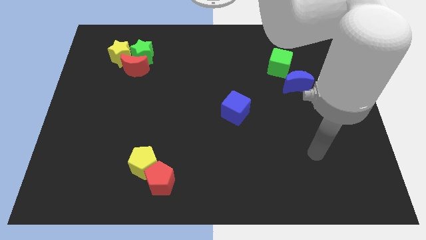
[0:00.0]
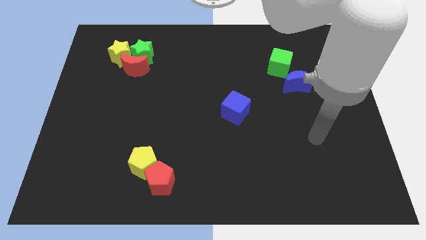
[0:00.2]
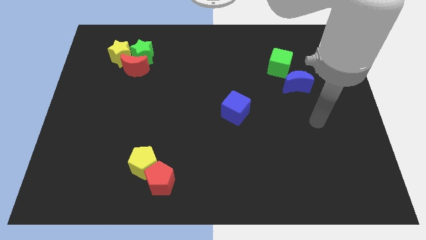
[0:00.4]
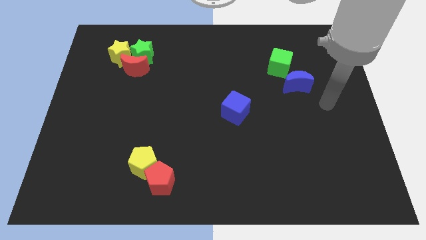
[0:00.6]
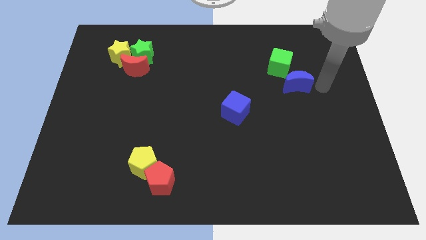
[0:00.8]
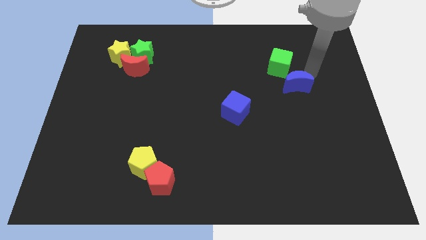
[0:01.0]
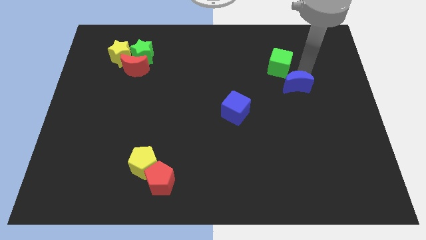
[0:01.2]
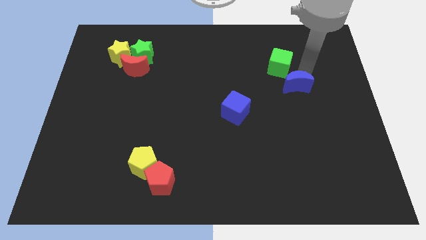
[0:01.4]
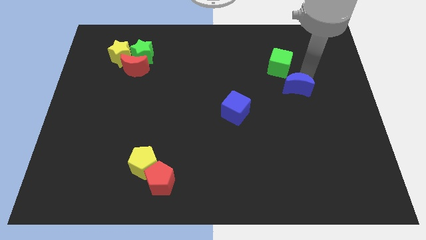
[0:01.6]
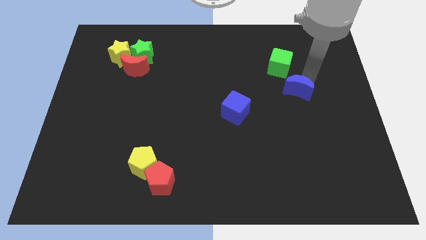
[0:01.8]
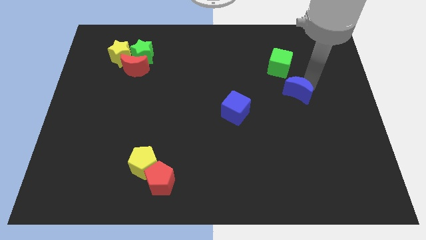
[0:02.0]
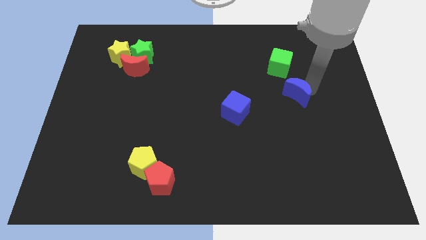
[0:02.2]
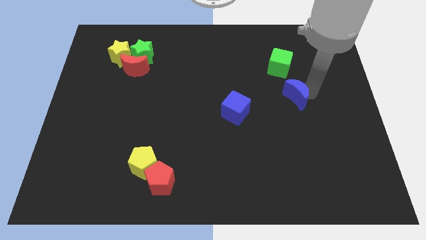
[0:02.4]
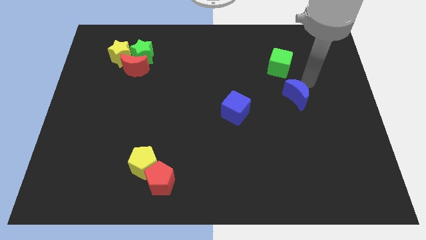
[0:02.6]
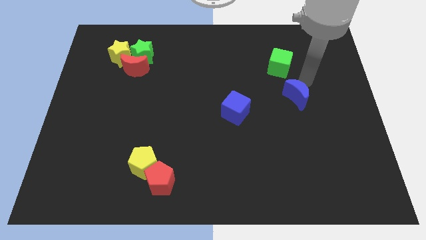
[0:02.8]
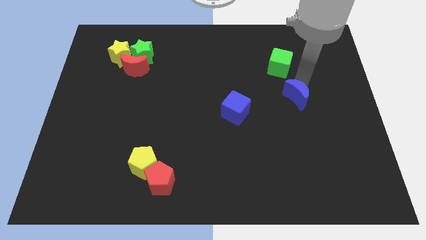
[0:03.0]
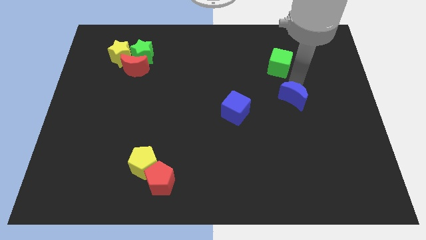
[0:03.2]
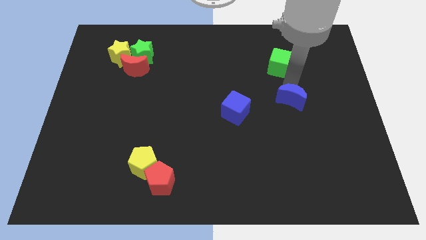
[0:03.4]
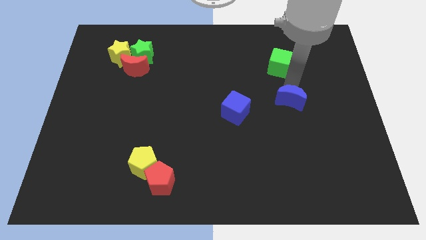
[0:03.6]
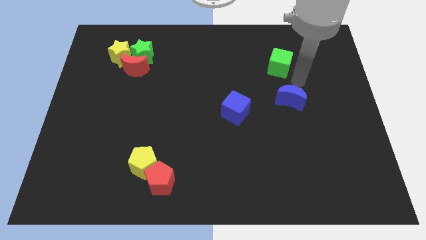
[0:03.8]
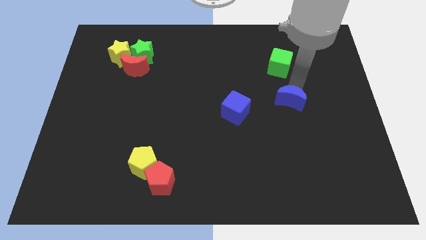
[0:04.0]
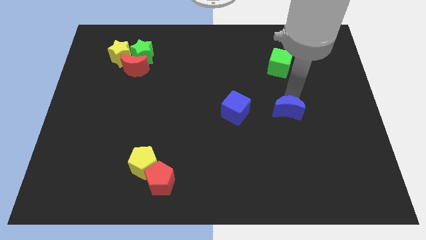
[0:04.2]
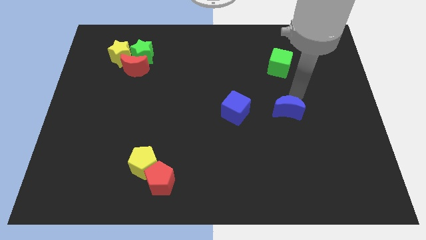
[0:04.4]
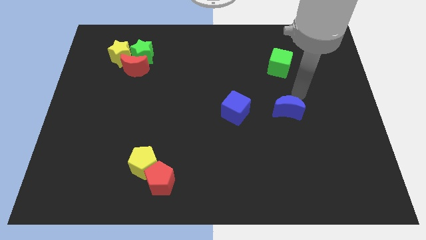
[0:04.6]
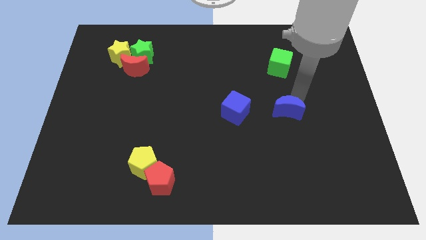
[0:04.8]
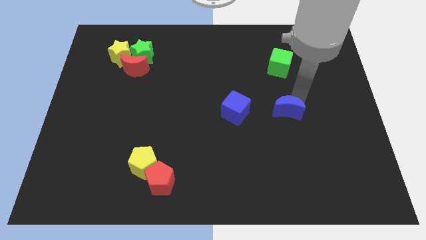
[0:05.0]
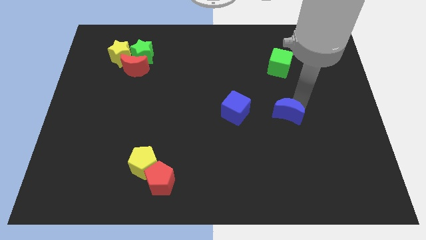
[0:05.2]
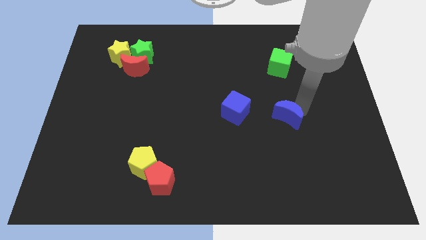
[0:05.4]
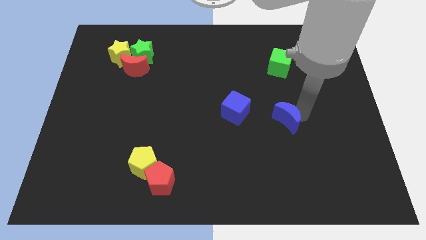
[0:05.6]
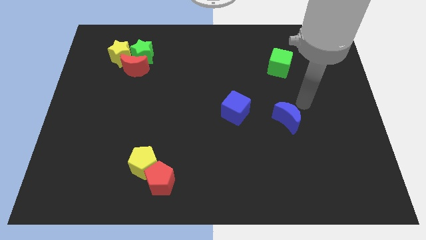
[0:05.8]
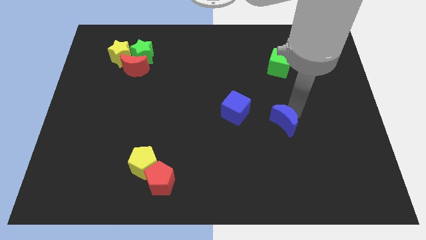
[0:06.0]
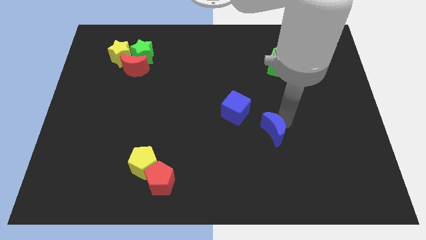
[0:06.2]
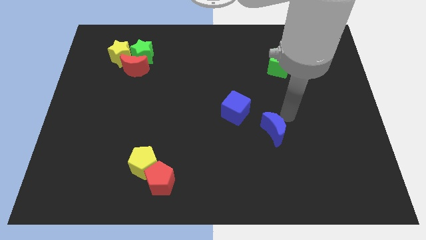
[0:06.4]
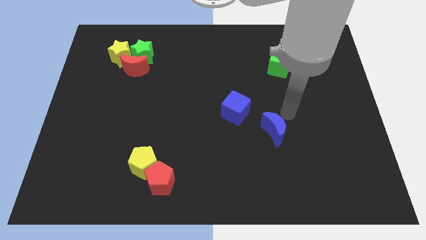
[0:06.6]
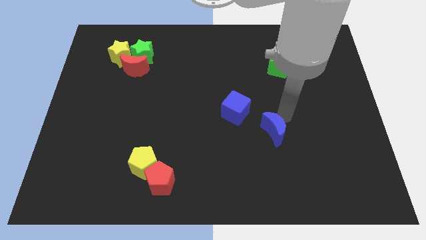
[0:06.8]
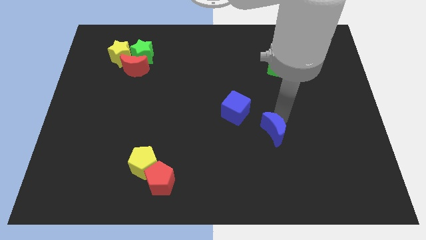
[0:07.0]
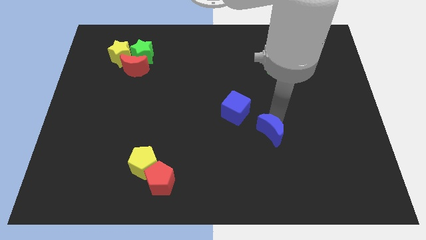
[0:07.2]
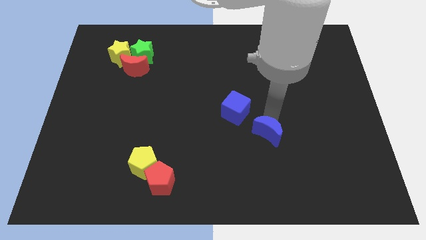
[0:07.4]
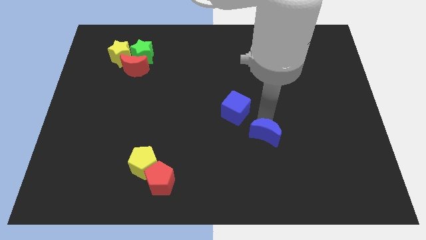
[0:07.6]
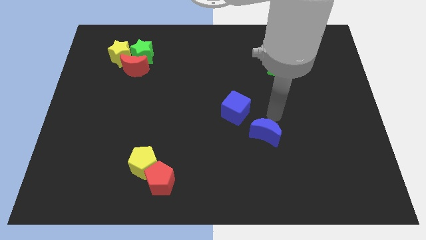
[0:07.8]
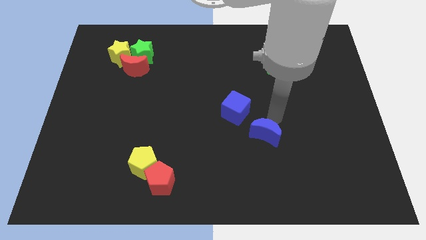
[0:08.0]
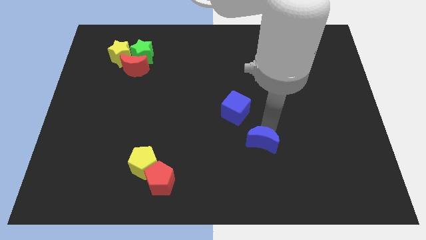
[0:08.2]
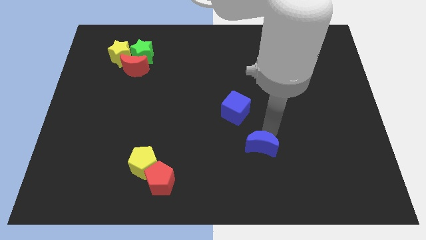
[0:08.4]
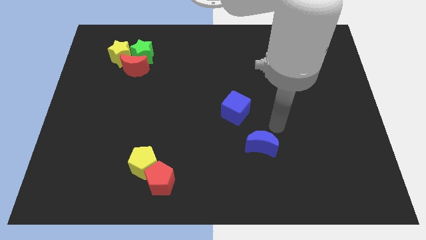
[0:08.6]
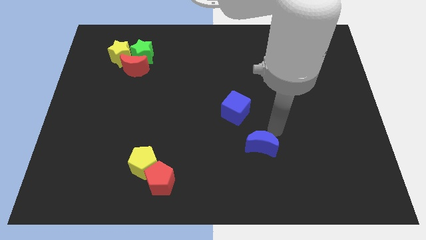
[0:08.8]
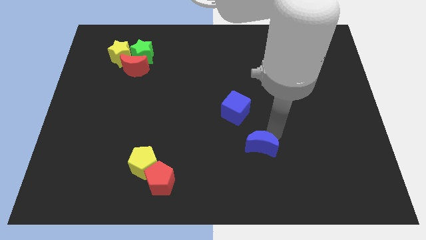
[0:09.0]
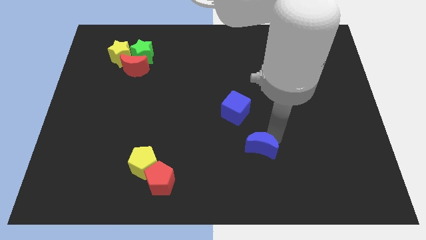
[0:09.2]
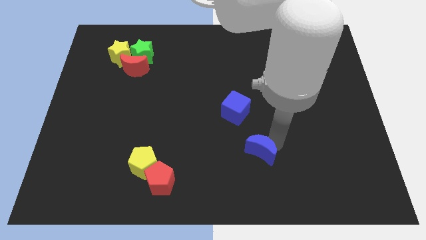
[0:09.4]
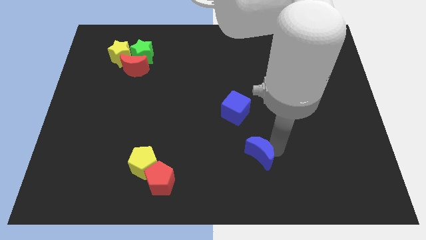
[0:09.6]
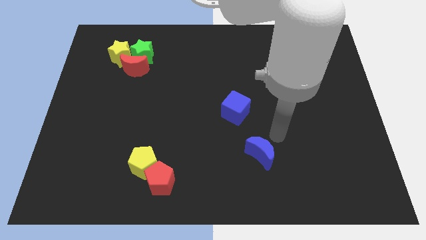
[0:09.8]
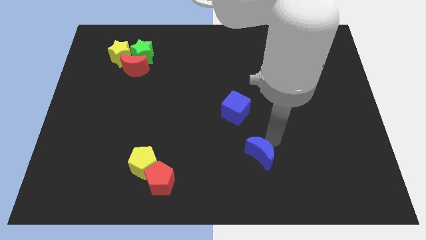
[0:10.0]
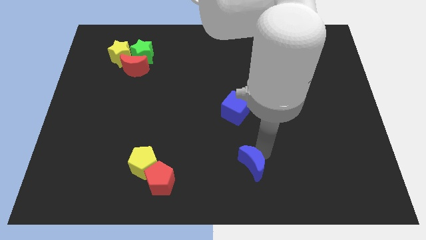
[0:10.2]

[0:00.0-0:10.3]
move the blue moon to the bottom side

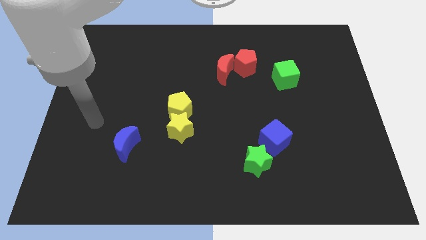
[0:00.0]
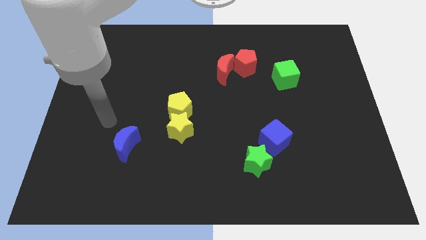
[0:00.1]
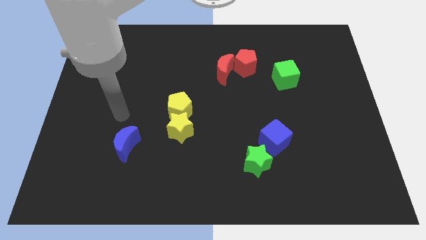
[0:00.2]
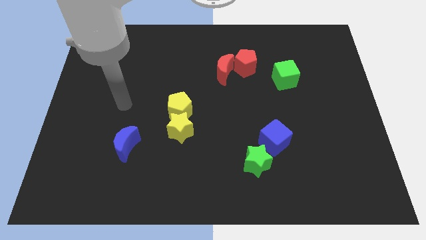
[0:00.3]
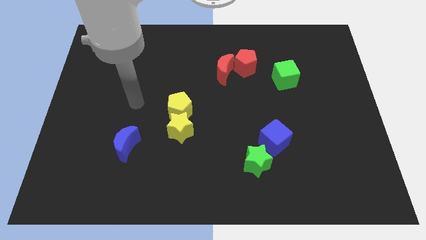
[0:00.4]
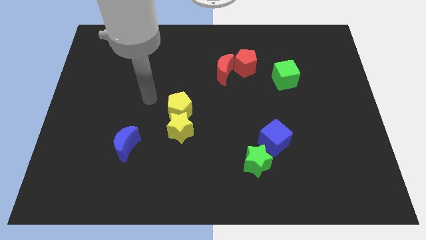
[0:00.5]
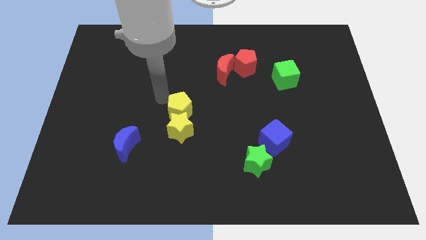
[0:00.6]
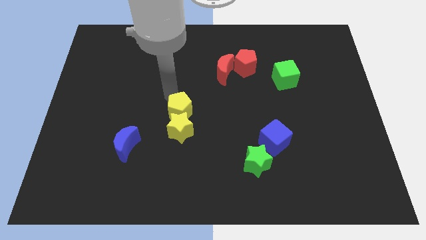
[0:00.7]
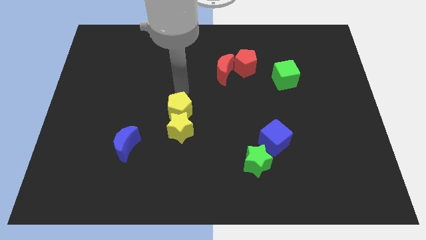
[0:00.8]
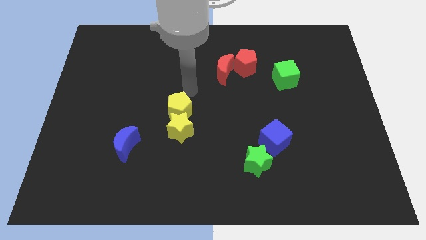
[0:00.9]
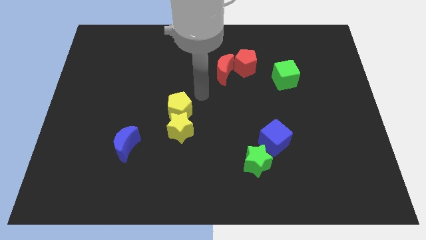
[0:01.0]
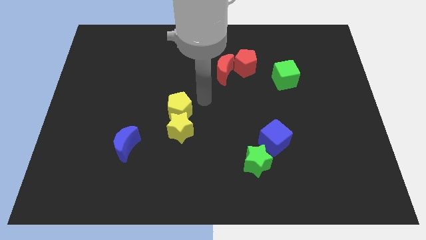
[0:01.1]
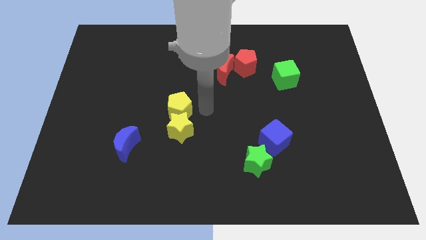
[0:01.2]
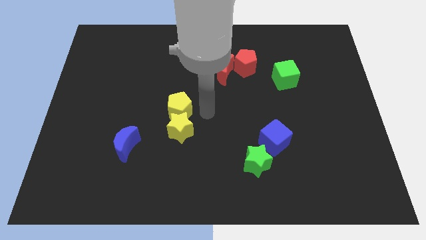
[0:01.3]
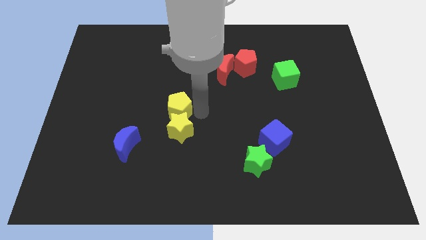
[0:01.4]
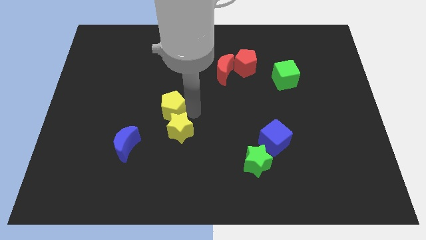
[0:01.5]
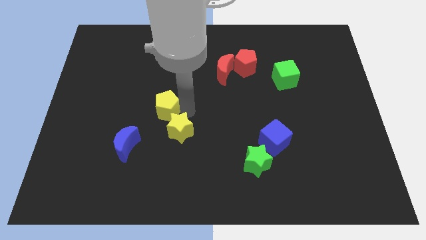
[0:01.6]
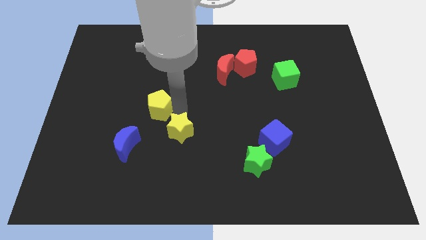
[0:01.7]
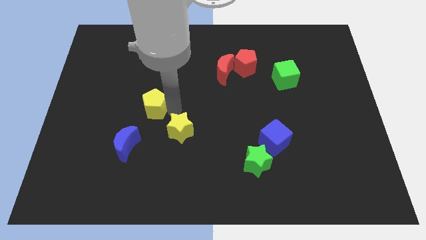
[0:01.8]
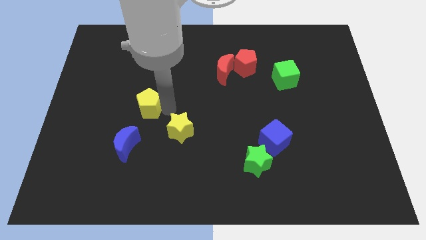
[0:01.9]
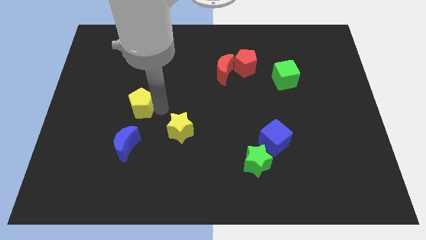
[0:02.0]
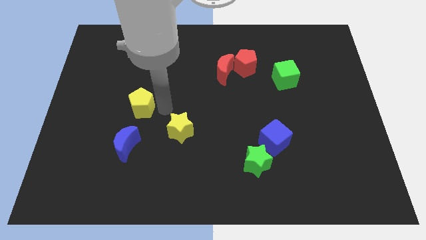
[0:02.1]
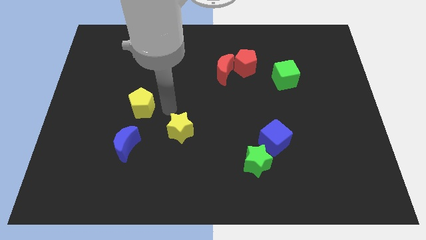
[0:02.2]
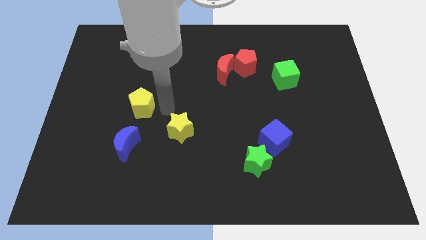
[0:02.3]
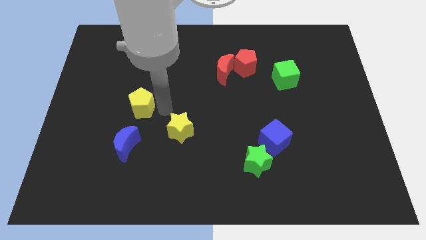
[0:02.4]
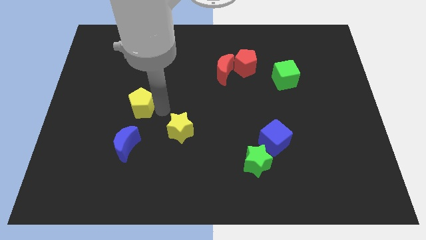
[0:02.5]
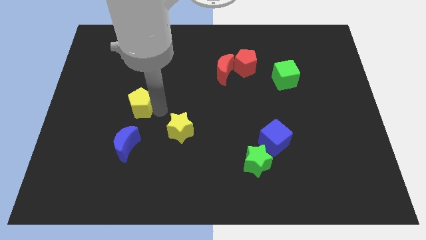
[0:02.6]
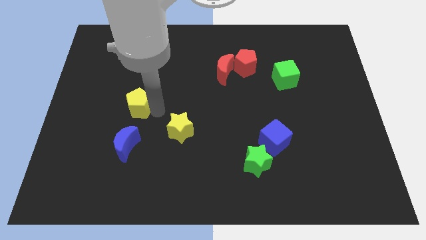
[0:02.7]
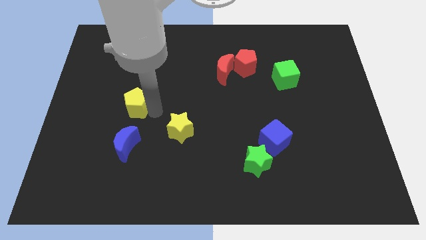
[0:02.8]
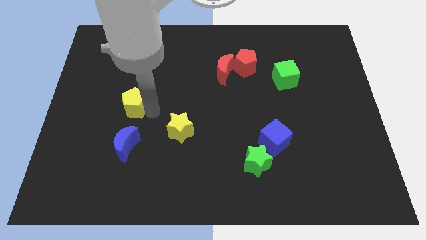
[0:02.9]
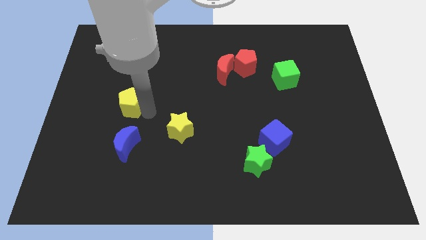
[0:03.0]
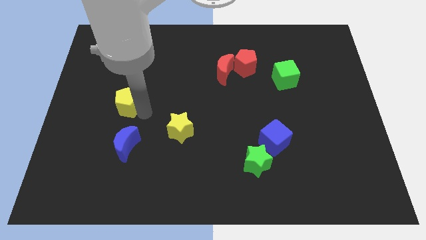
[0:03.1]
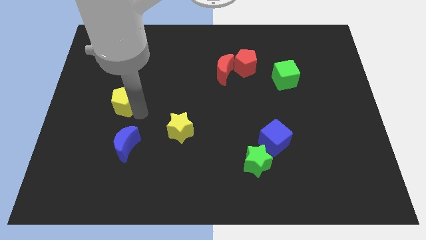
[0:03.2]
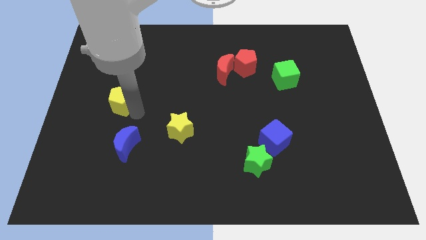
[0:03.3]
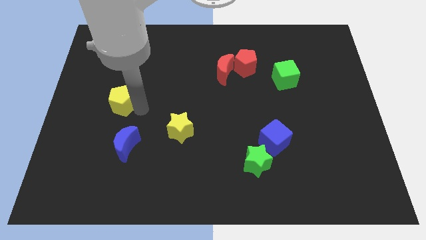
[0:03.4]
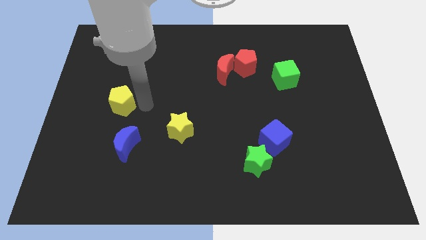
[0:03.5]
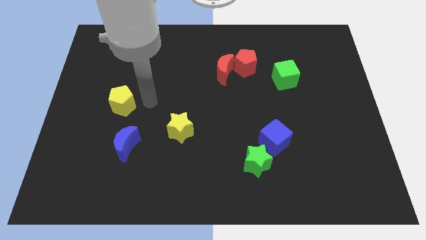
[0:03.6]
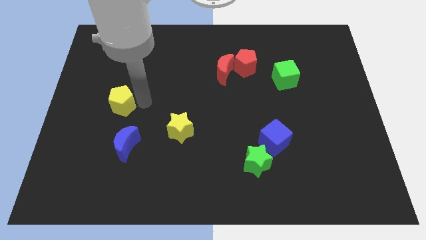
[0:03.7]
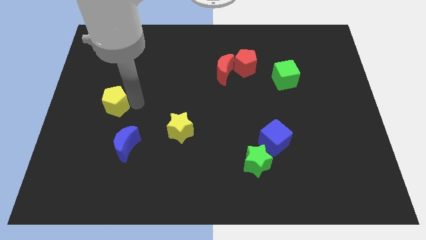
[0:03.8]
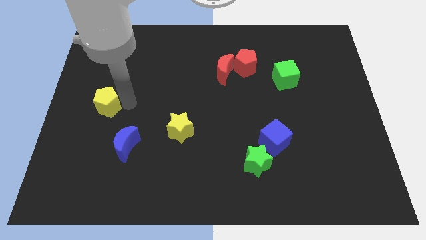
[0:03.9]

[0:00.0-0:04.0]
slide the yellow pentagon to the left side
